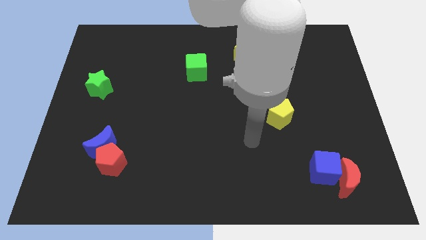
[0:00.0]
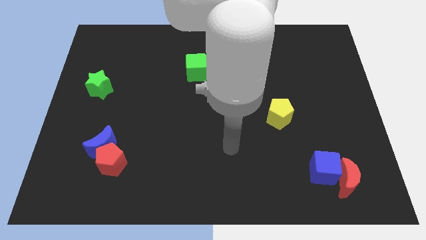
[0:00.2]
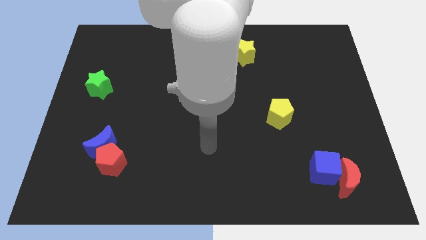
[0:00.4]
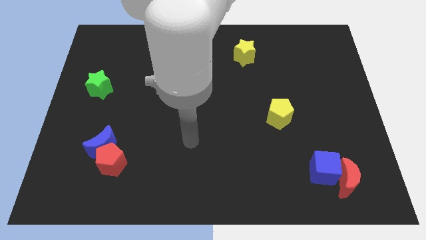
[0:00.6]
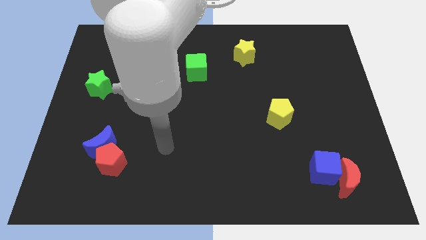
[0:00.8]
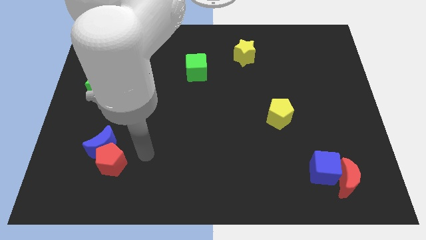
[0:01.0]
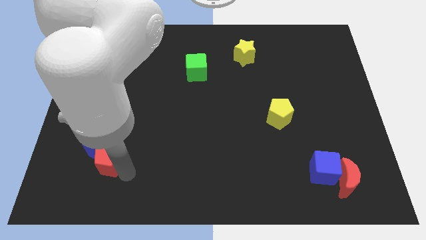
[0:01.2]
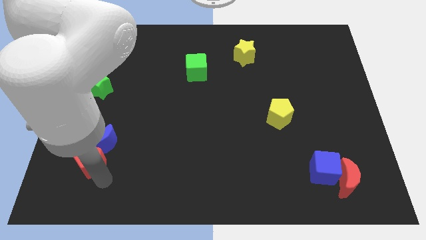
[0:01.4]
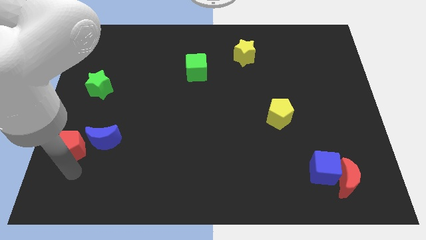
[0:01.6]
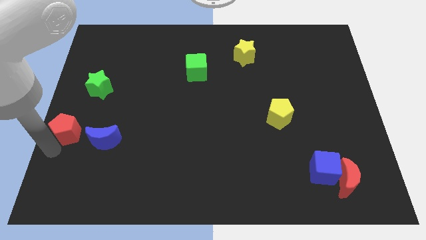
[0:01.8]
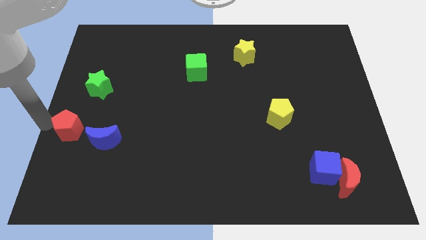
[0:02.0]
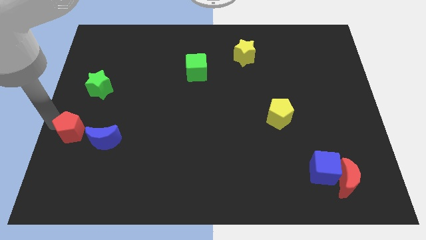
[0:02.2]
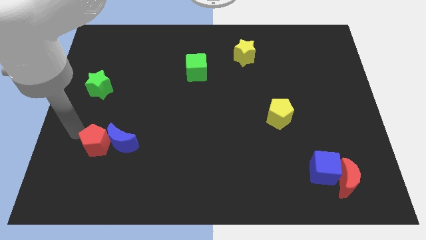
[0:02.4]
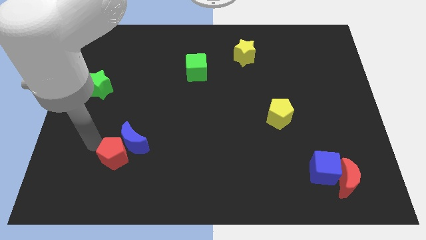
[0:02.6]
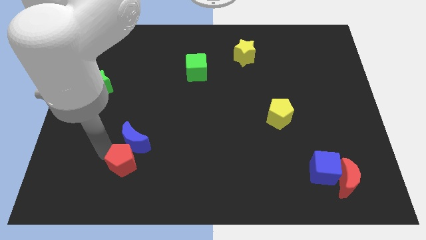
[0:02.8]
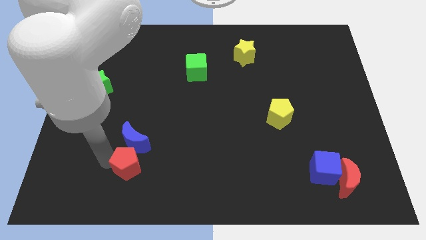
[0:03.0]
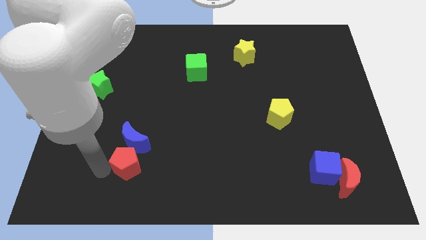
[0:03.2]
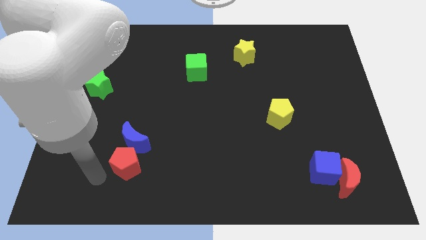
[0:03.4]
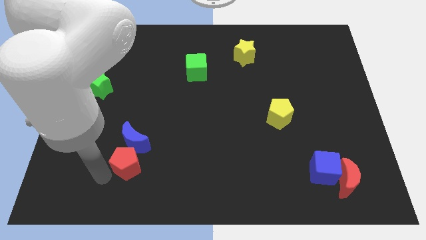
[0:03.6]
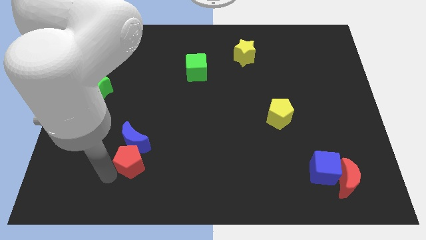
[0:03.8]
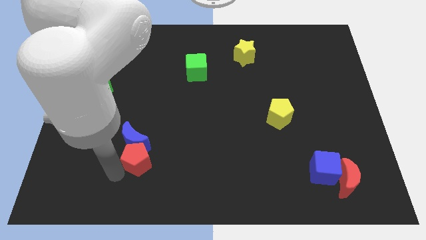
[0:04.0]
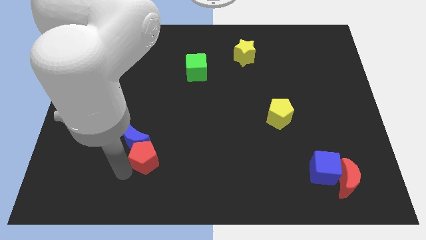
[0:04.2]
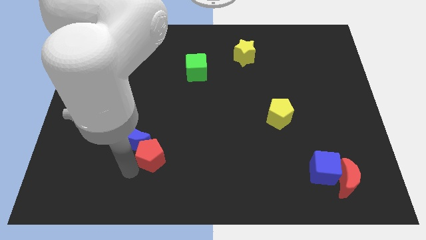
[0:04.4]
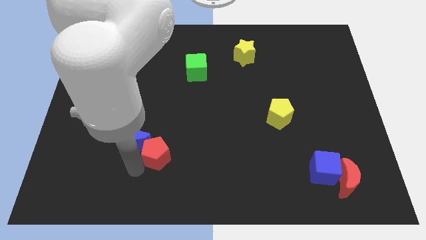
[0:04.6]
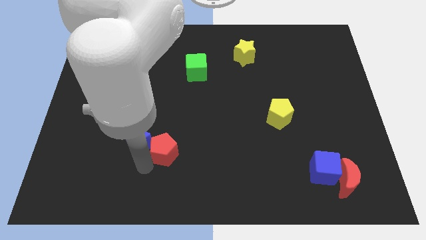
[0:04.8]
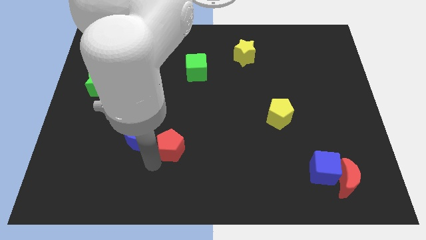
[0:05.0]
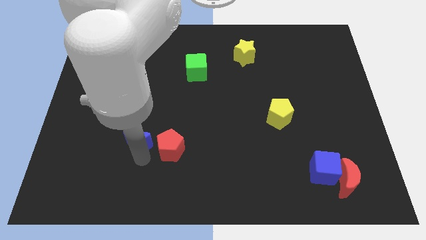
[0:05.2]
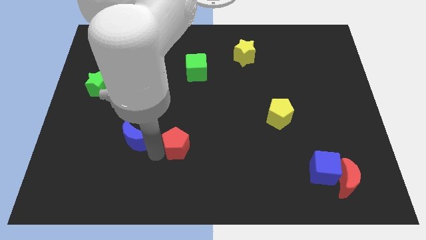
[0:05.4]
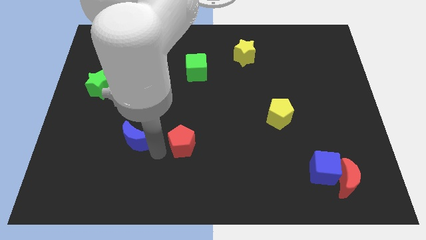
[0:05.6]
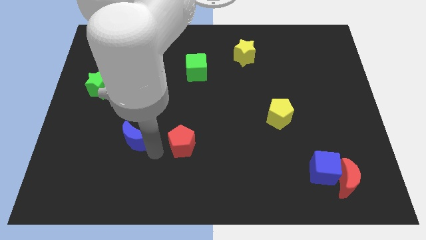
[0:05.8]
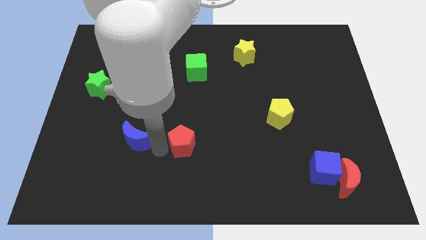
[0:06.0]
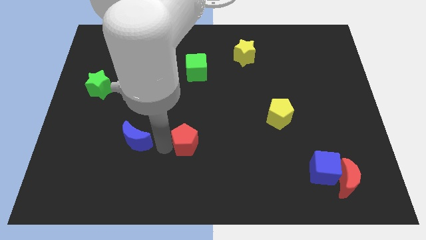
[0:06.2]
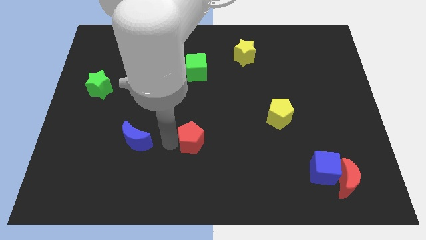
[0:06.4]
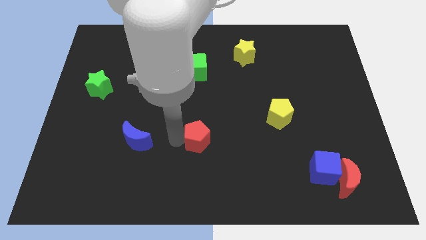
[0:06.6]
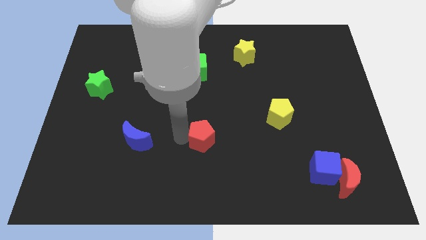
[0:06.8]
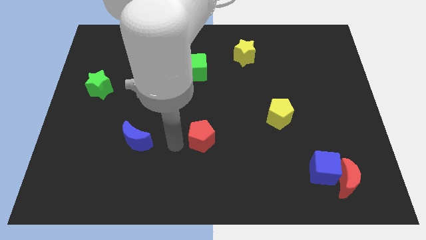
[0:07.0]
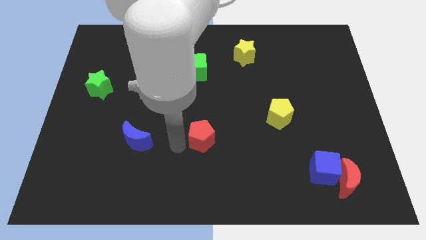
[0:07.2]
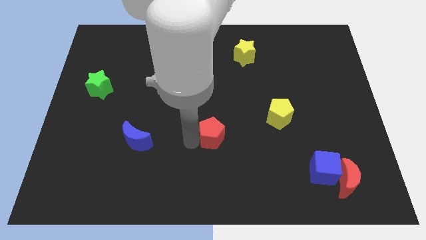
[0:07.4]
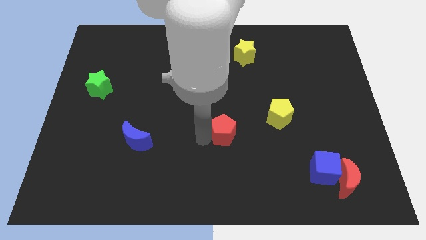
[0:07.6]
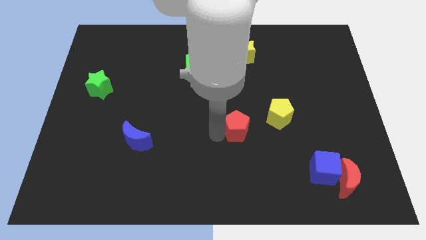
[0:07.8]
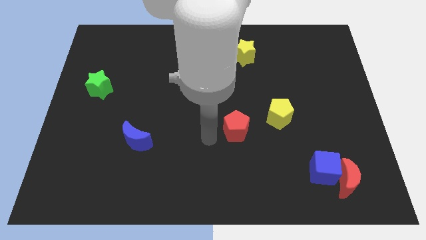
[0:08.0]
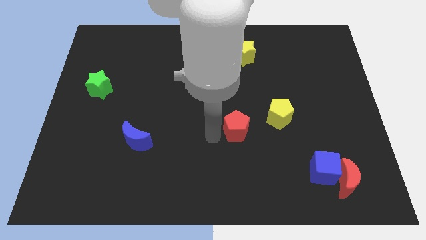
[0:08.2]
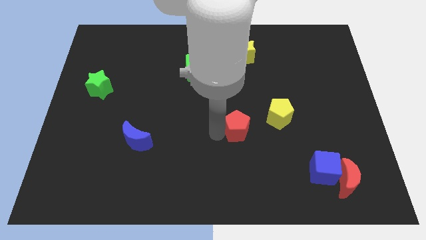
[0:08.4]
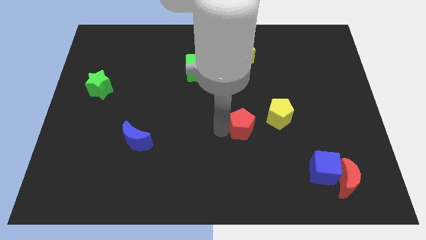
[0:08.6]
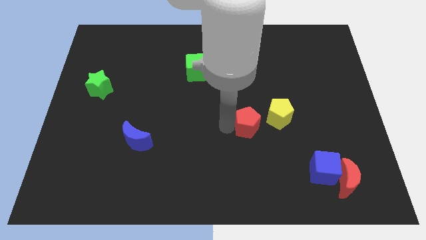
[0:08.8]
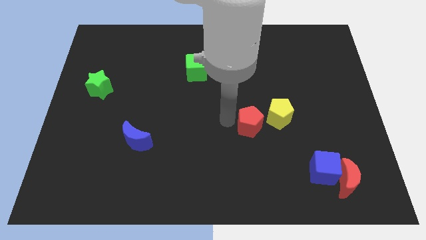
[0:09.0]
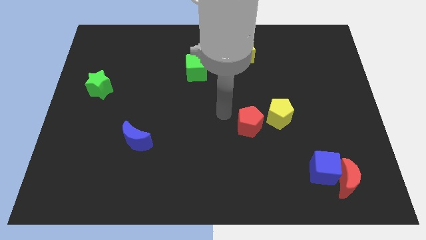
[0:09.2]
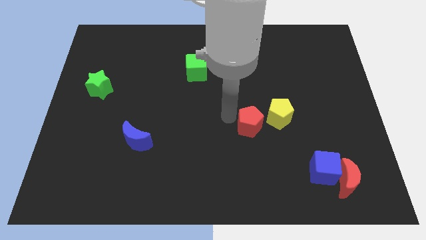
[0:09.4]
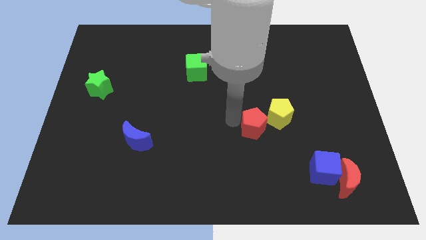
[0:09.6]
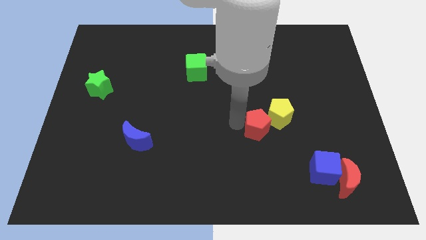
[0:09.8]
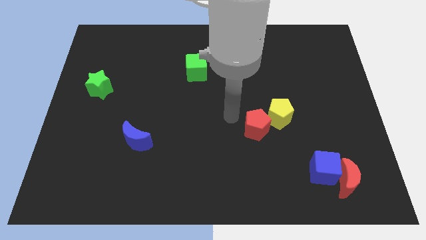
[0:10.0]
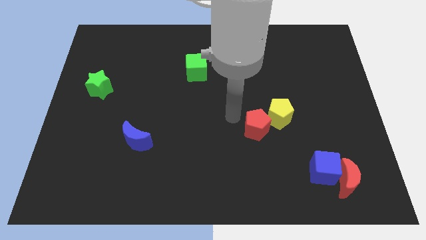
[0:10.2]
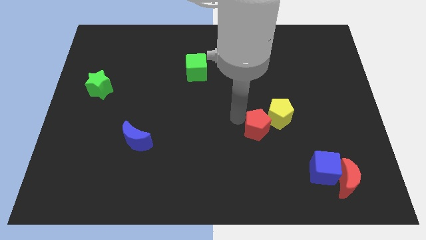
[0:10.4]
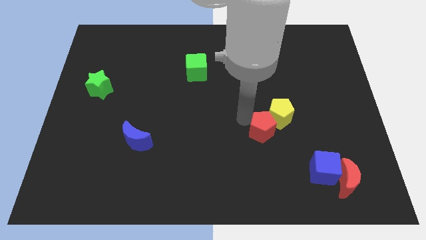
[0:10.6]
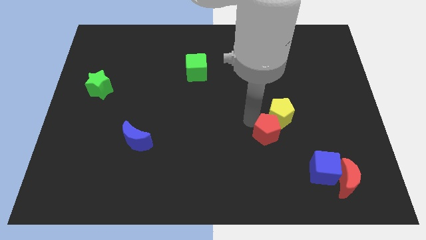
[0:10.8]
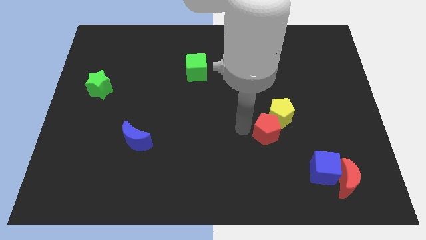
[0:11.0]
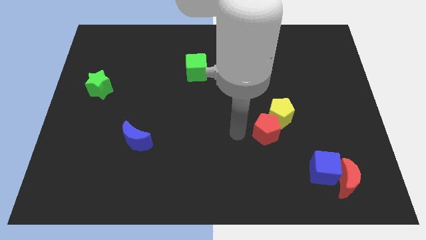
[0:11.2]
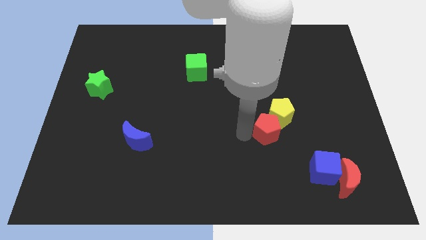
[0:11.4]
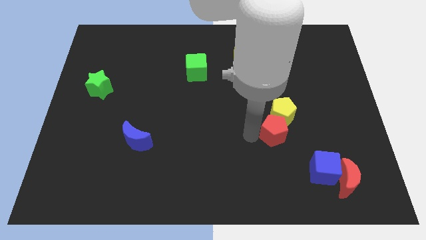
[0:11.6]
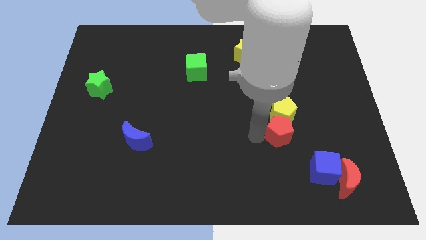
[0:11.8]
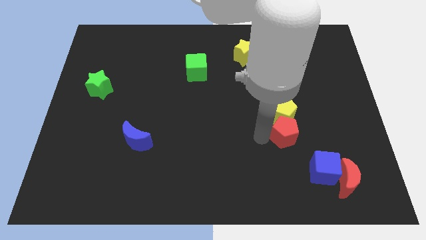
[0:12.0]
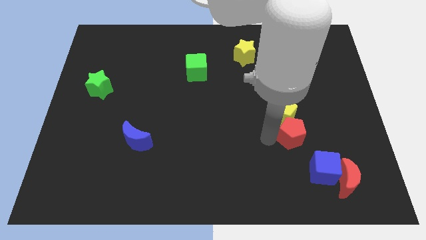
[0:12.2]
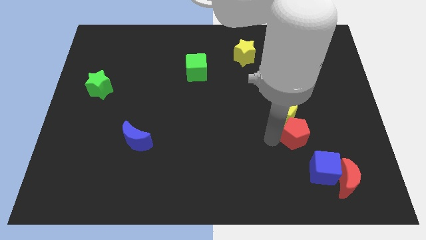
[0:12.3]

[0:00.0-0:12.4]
push the red pentagon above the blue cube

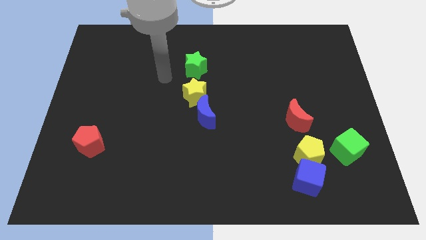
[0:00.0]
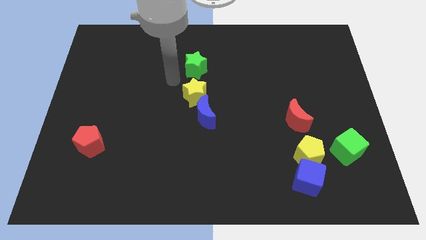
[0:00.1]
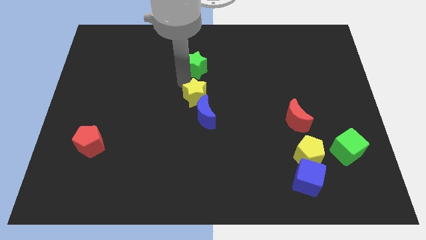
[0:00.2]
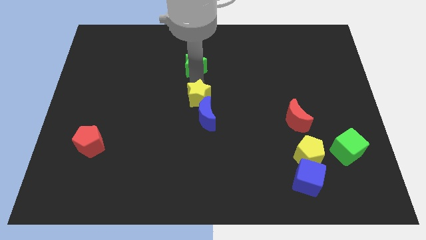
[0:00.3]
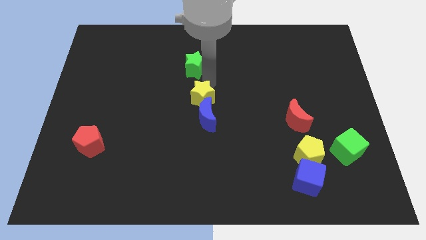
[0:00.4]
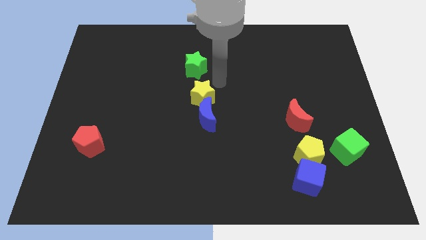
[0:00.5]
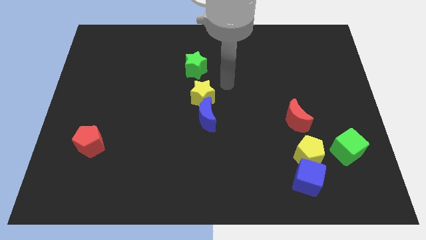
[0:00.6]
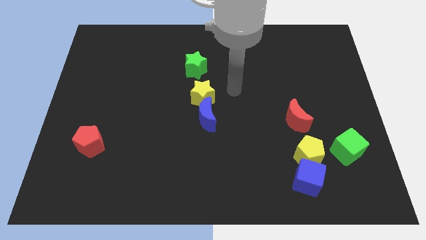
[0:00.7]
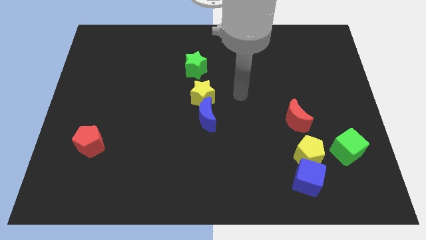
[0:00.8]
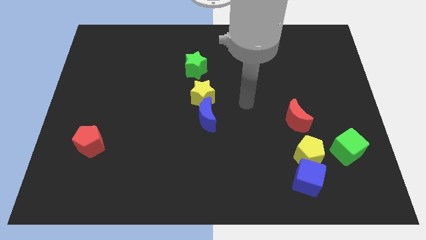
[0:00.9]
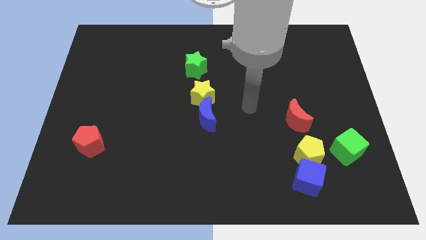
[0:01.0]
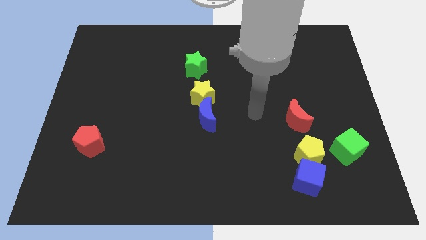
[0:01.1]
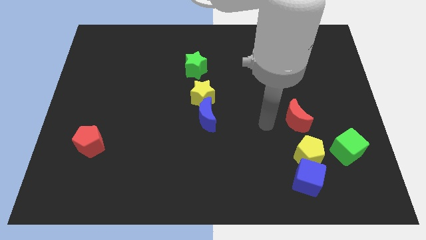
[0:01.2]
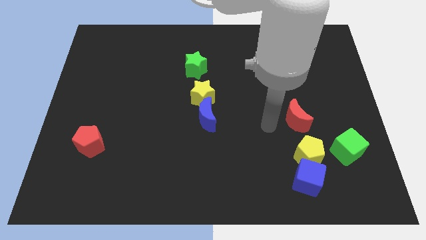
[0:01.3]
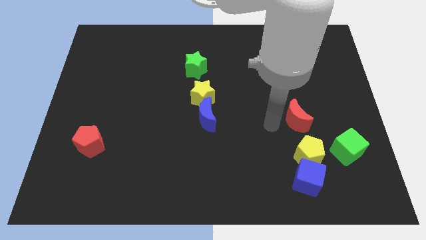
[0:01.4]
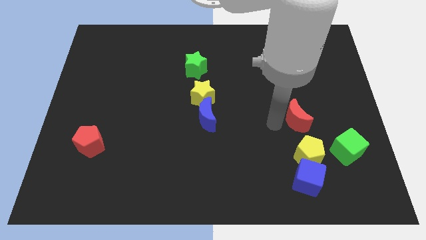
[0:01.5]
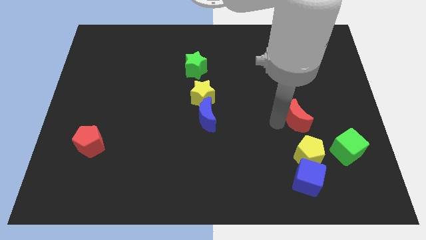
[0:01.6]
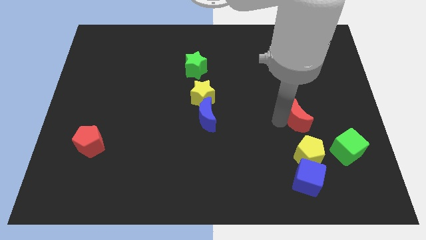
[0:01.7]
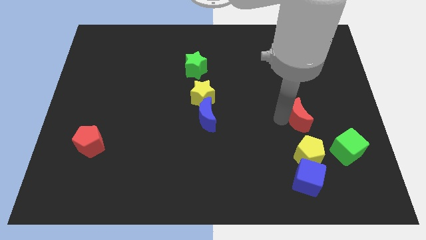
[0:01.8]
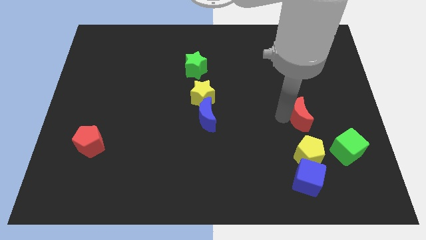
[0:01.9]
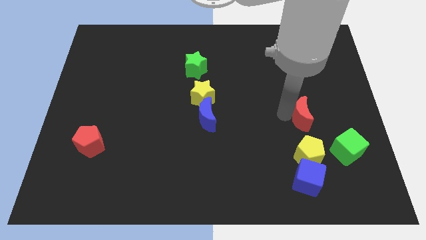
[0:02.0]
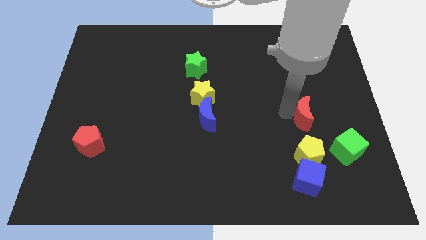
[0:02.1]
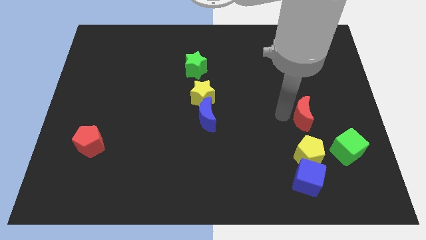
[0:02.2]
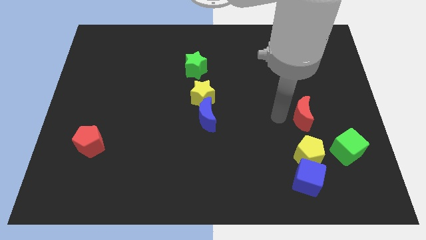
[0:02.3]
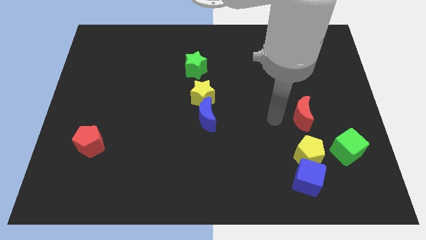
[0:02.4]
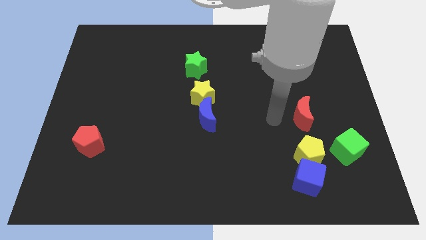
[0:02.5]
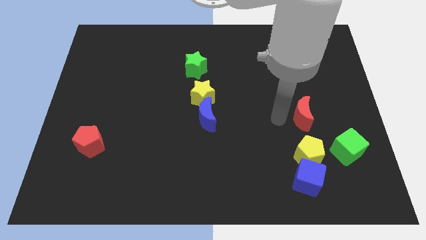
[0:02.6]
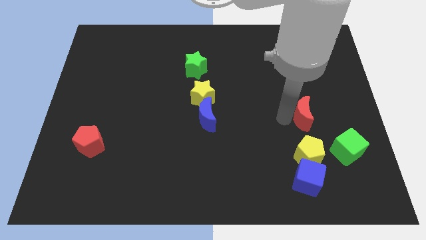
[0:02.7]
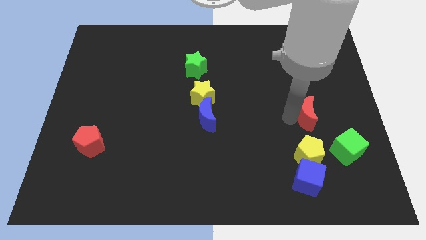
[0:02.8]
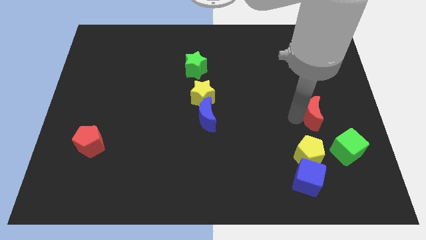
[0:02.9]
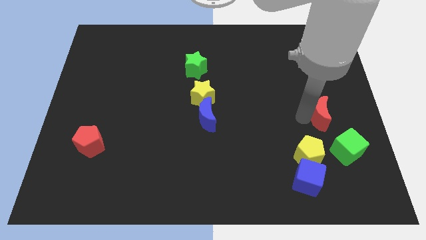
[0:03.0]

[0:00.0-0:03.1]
push the red moon to the top of the green cube
